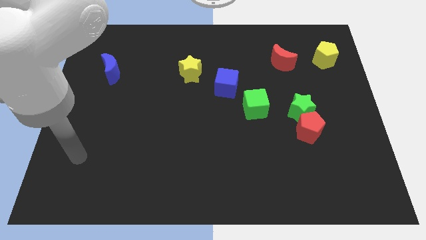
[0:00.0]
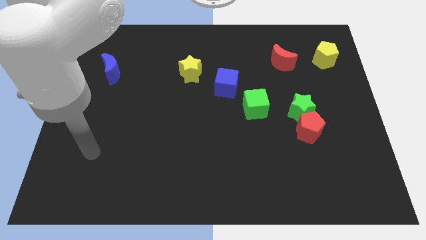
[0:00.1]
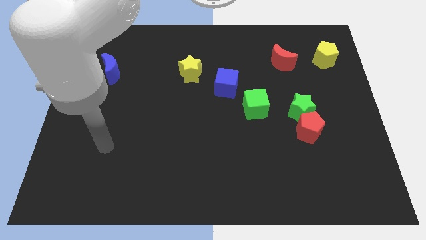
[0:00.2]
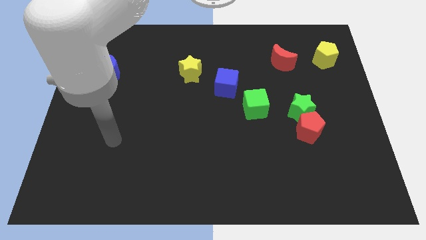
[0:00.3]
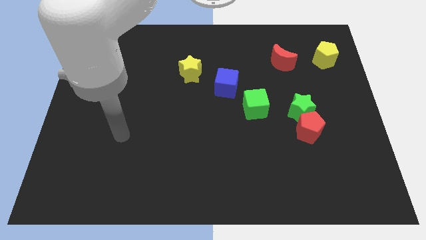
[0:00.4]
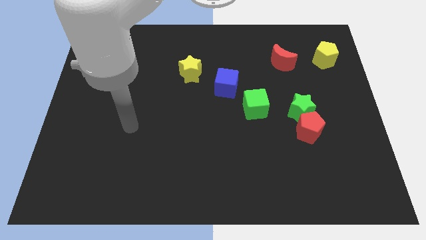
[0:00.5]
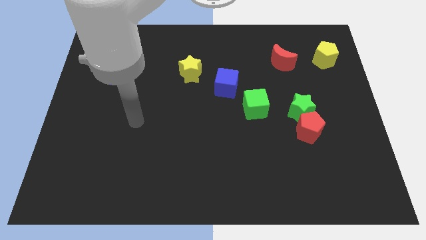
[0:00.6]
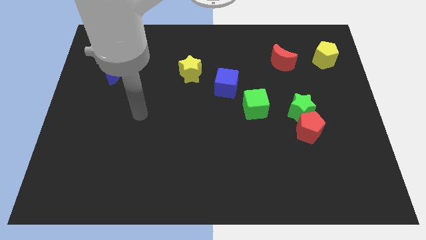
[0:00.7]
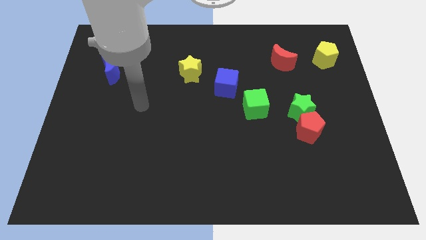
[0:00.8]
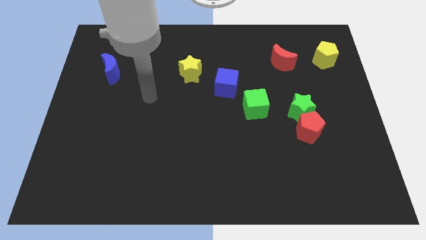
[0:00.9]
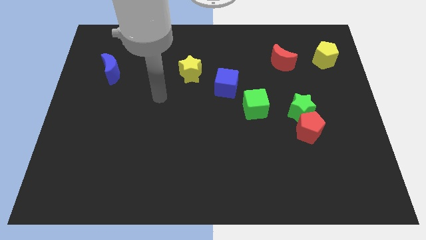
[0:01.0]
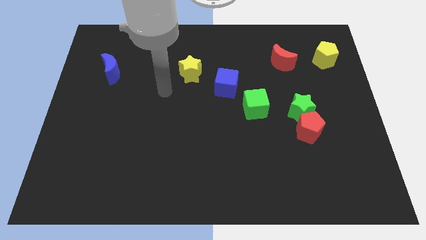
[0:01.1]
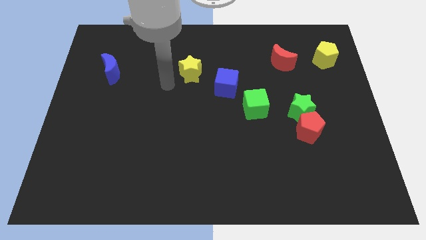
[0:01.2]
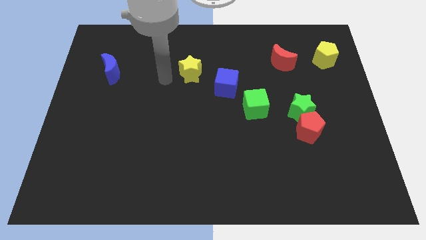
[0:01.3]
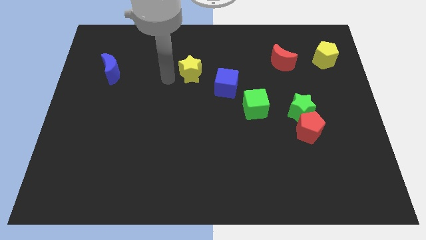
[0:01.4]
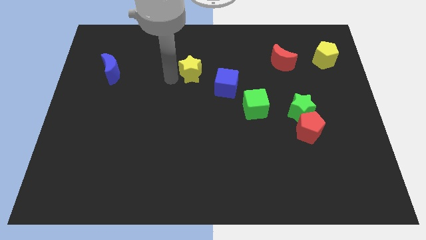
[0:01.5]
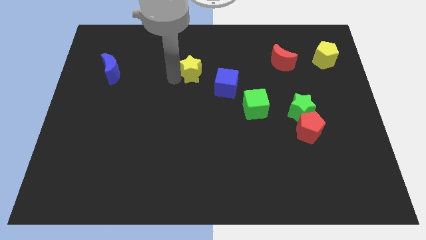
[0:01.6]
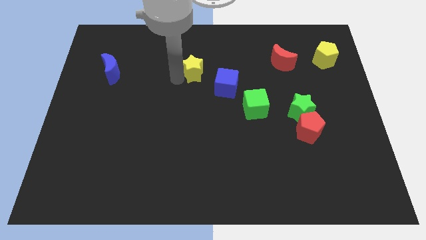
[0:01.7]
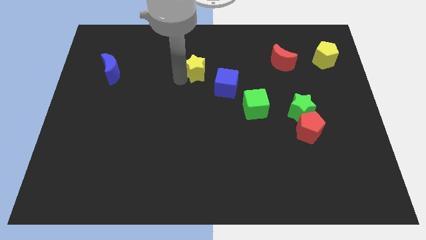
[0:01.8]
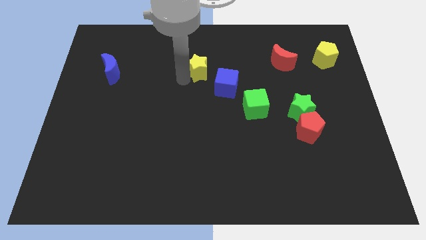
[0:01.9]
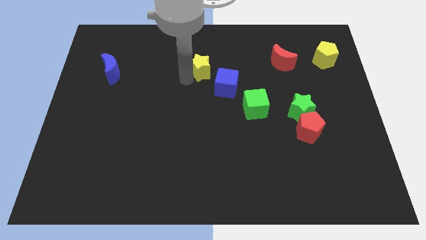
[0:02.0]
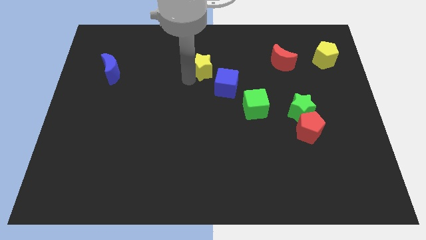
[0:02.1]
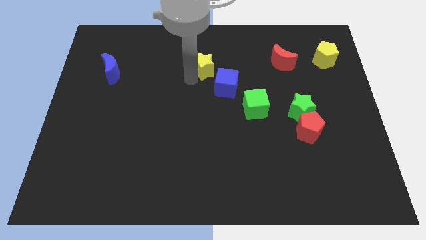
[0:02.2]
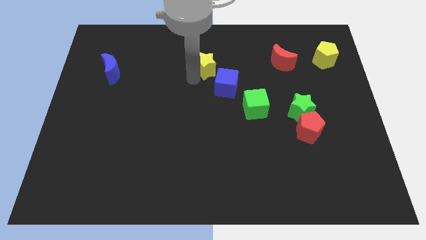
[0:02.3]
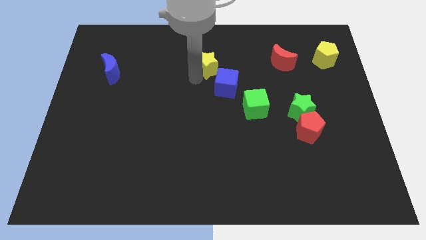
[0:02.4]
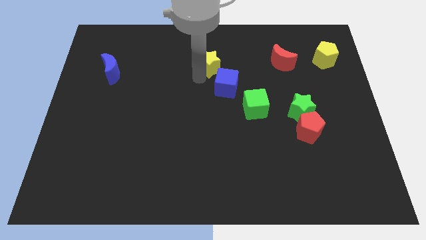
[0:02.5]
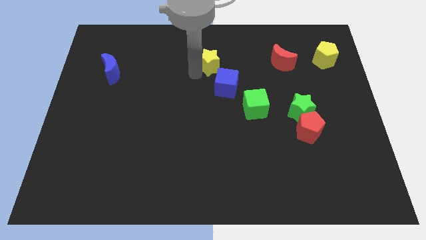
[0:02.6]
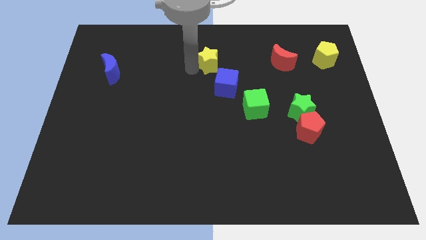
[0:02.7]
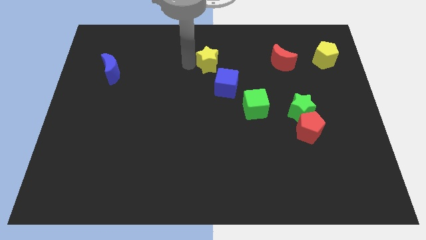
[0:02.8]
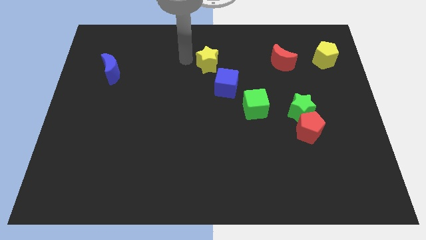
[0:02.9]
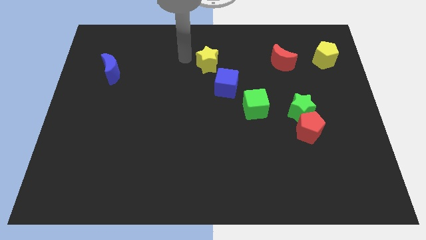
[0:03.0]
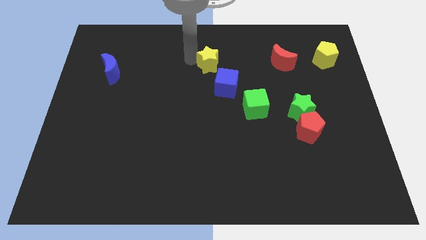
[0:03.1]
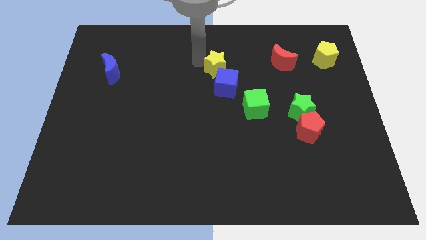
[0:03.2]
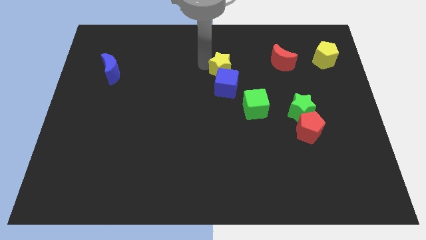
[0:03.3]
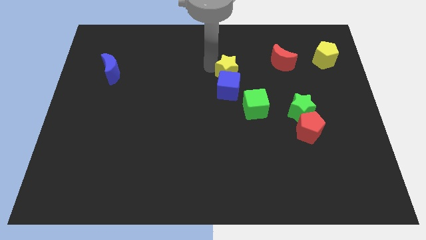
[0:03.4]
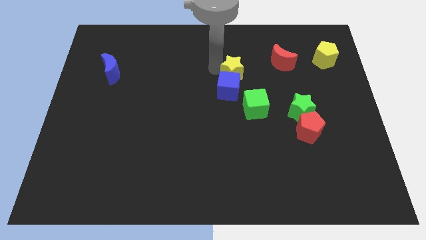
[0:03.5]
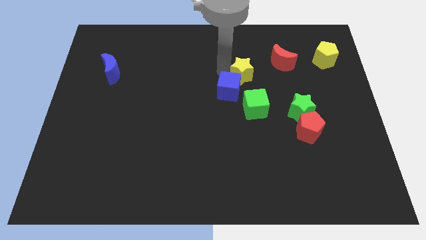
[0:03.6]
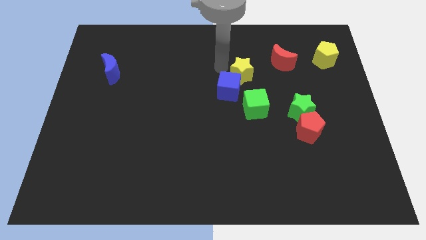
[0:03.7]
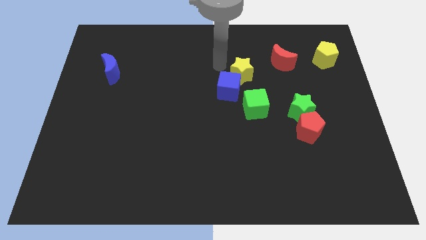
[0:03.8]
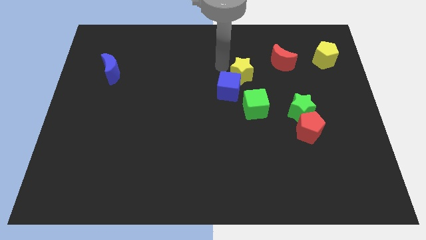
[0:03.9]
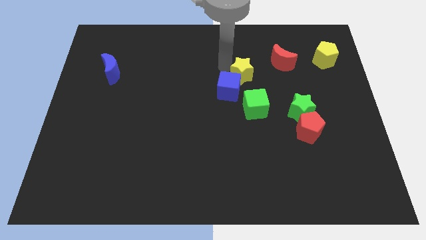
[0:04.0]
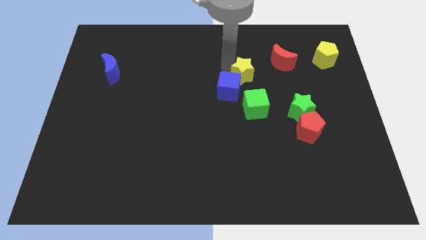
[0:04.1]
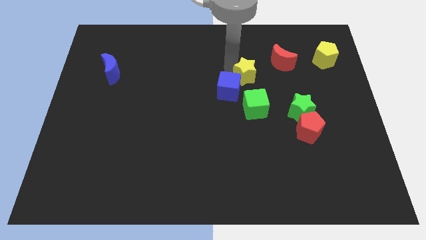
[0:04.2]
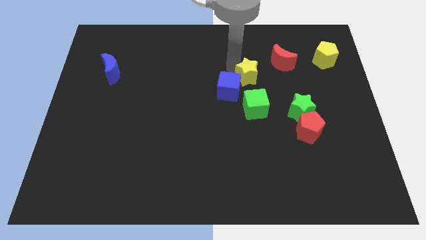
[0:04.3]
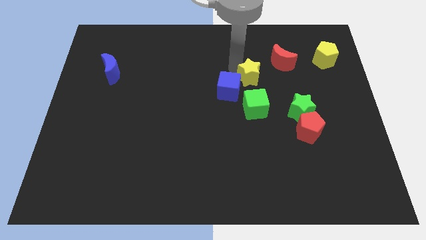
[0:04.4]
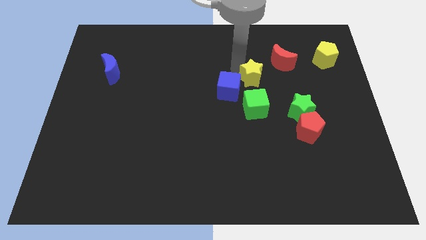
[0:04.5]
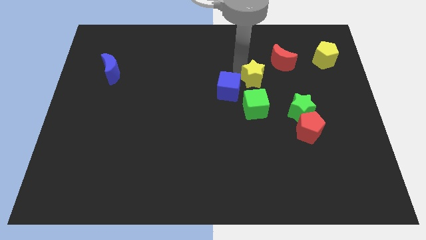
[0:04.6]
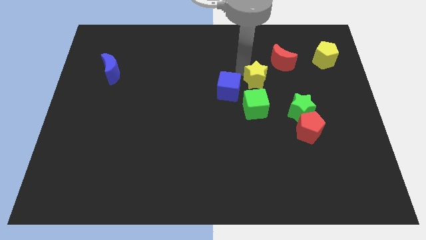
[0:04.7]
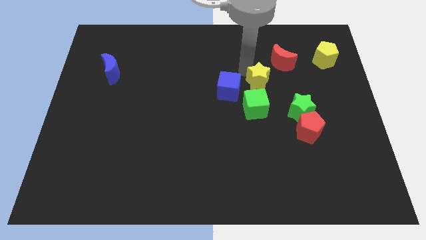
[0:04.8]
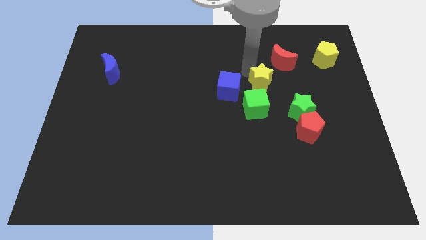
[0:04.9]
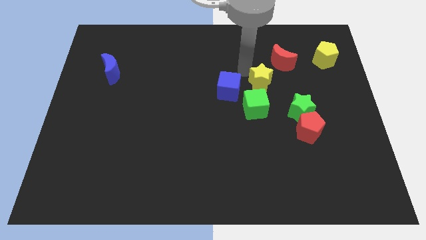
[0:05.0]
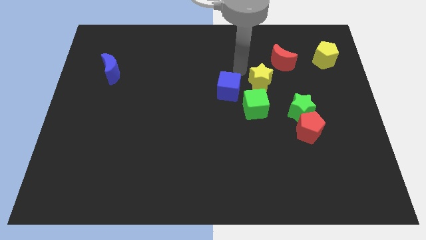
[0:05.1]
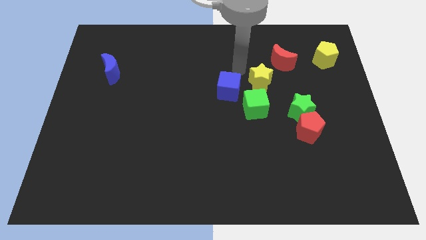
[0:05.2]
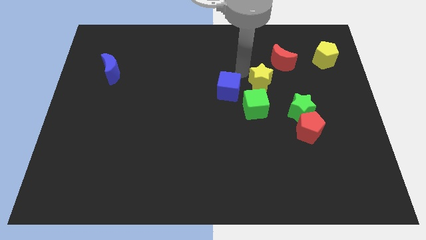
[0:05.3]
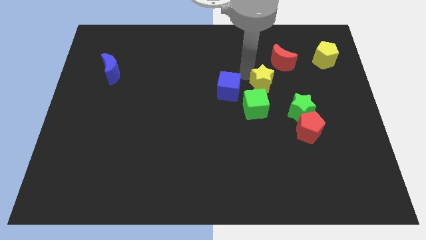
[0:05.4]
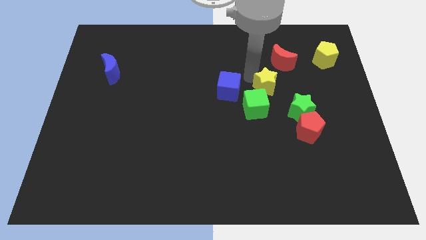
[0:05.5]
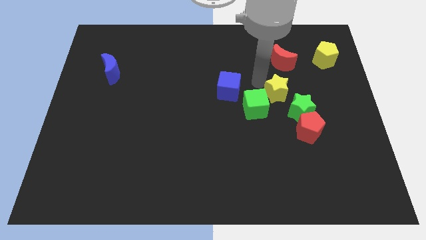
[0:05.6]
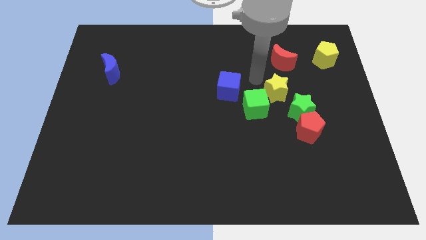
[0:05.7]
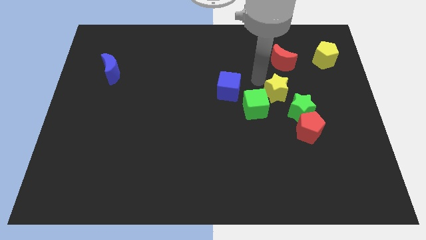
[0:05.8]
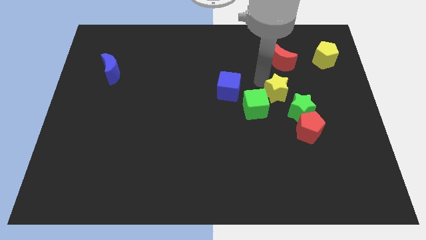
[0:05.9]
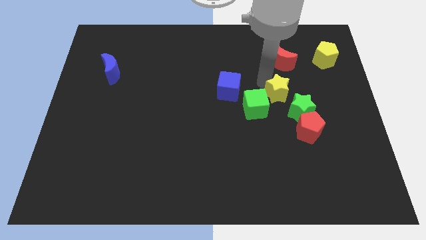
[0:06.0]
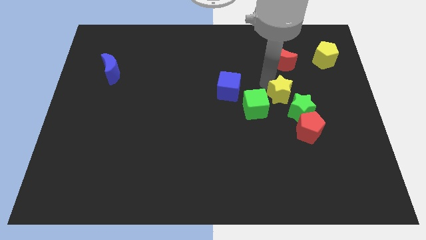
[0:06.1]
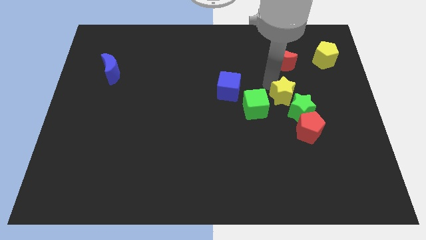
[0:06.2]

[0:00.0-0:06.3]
push the yellow star to the green star

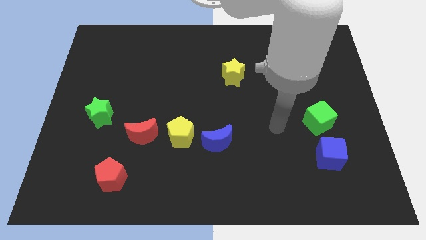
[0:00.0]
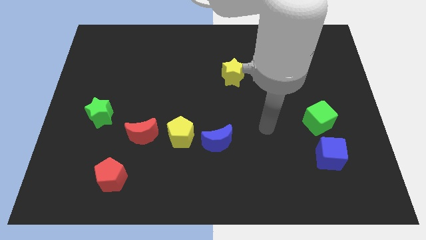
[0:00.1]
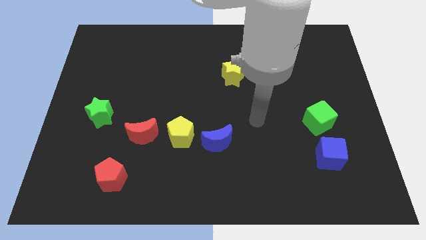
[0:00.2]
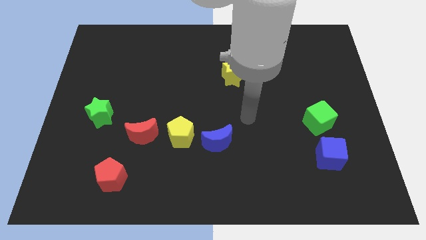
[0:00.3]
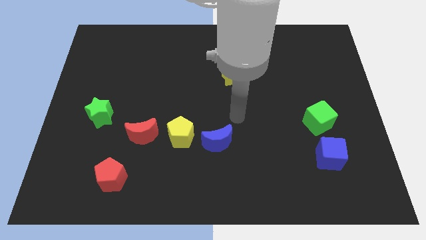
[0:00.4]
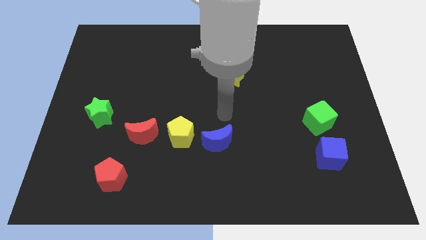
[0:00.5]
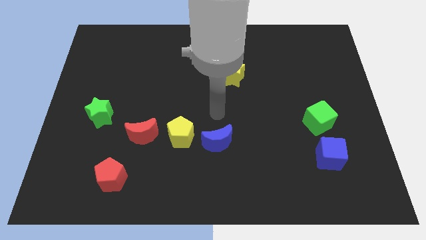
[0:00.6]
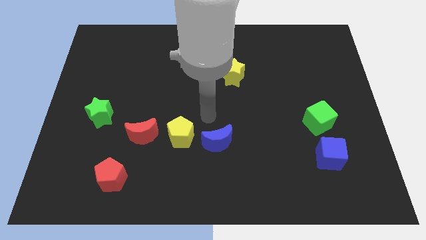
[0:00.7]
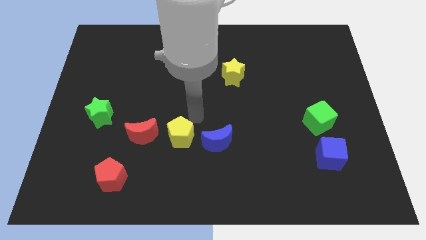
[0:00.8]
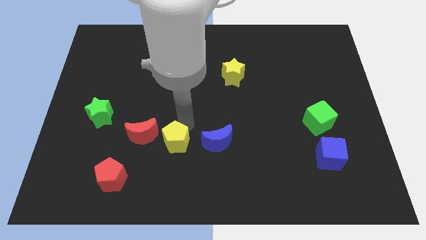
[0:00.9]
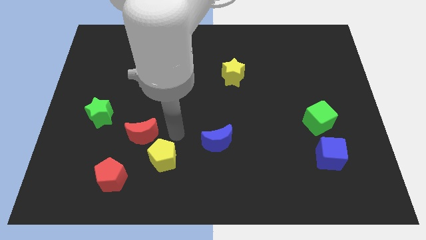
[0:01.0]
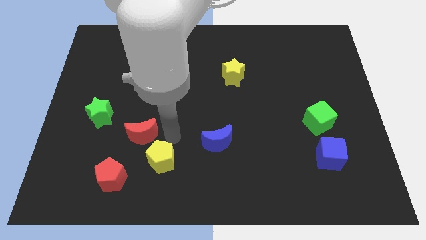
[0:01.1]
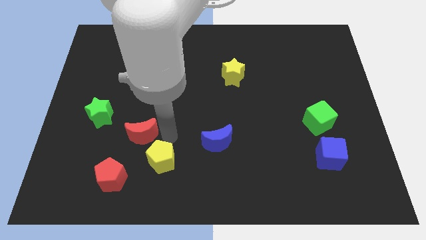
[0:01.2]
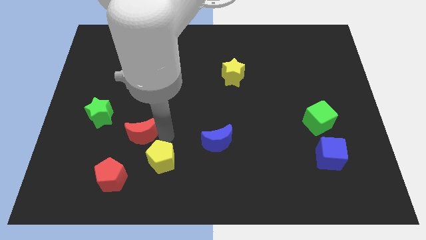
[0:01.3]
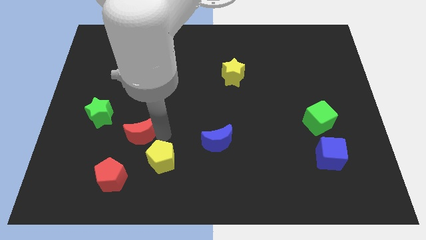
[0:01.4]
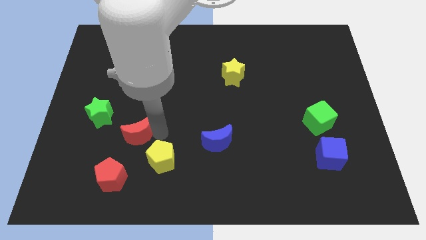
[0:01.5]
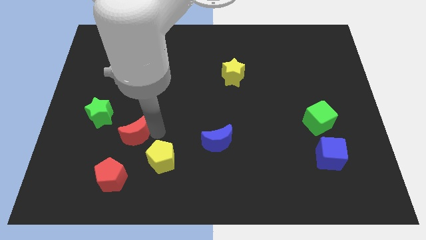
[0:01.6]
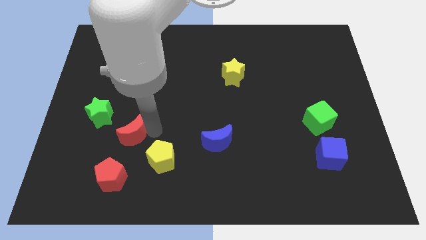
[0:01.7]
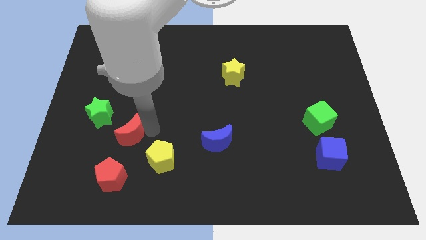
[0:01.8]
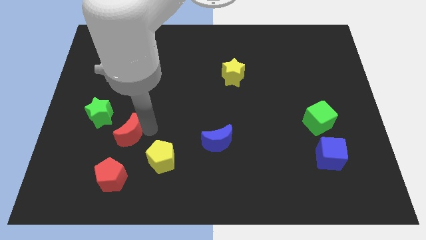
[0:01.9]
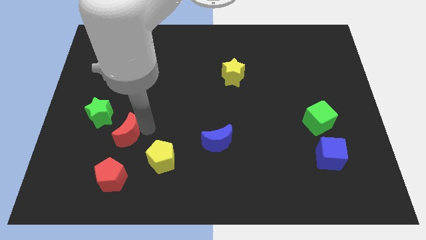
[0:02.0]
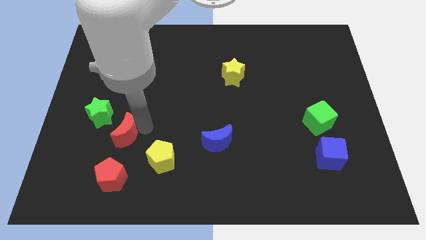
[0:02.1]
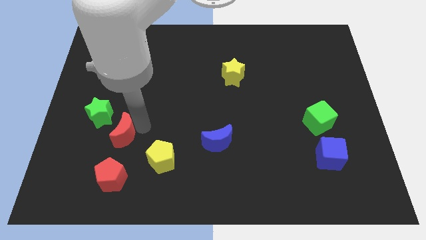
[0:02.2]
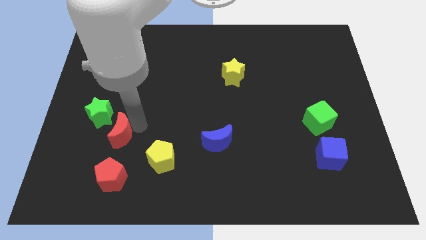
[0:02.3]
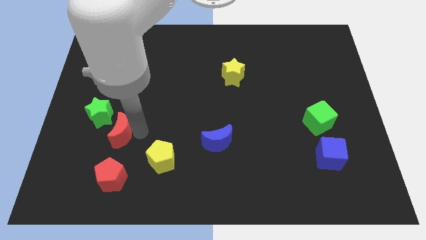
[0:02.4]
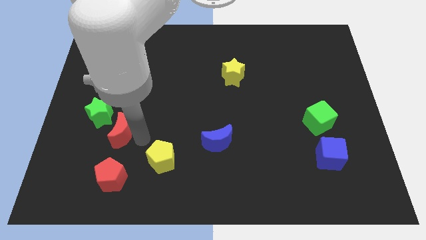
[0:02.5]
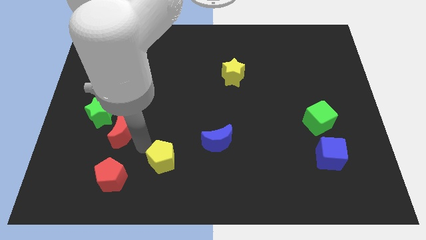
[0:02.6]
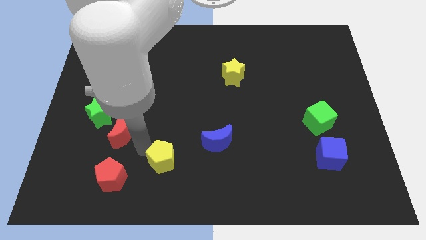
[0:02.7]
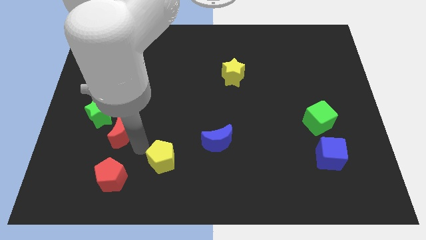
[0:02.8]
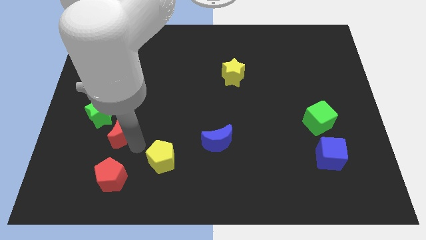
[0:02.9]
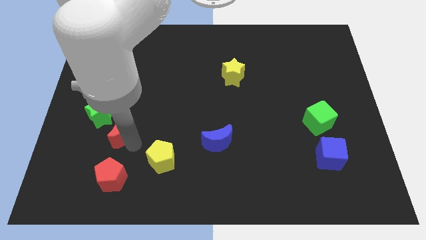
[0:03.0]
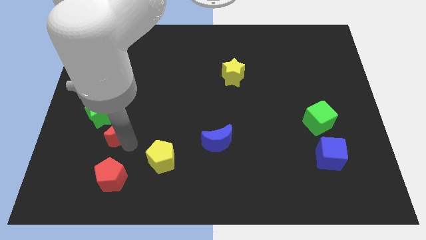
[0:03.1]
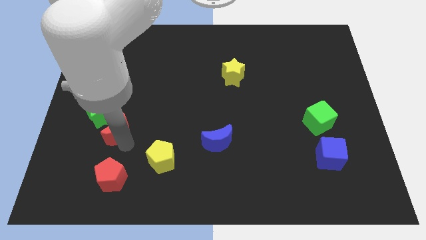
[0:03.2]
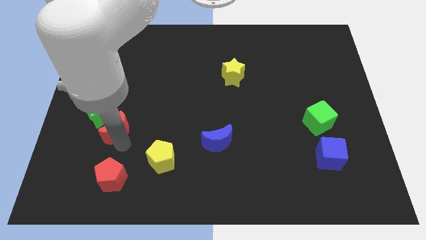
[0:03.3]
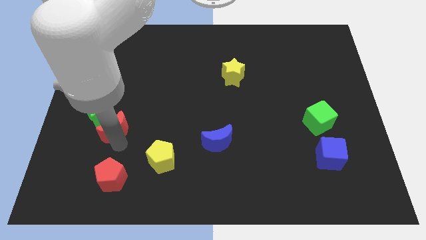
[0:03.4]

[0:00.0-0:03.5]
slide the red moon close to the green star
